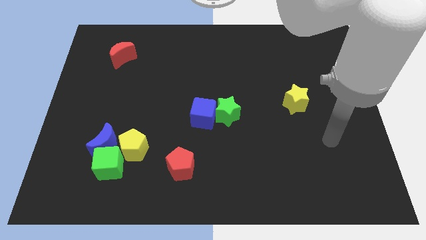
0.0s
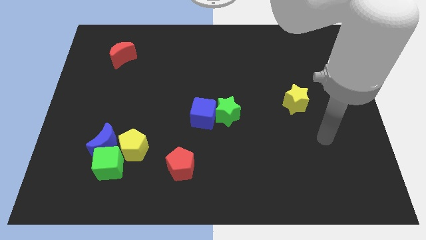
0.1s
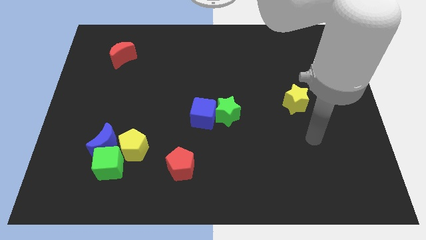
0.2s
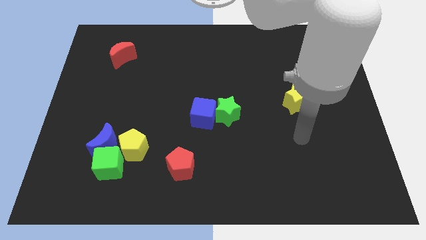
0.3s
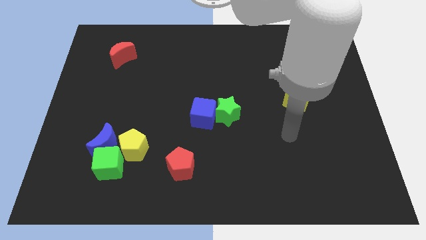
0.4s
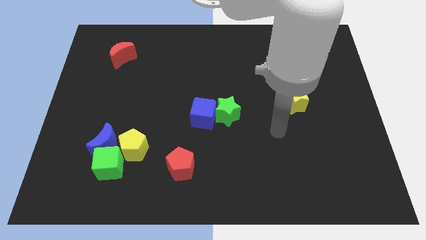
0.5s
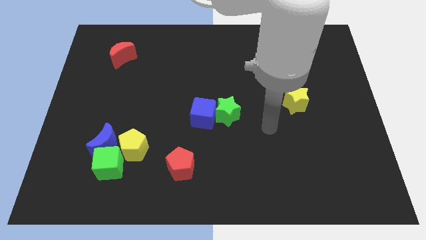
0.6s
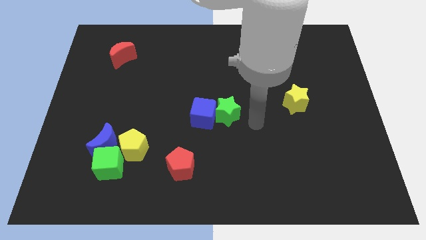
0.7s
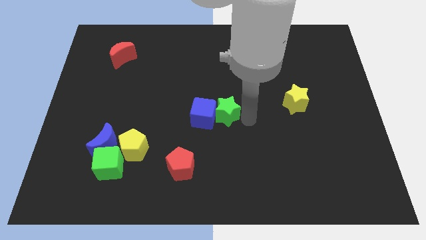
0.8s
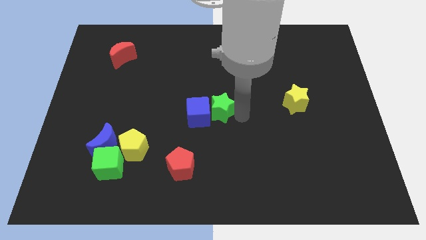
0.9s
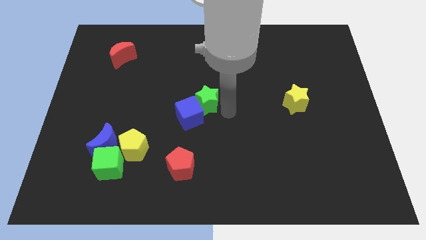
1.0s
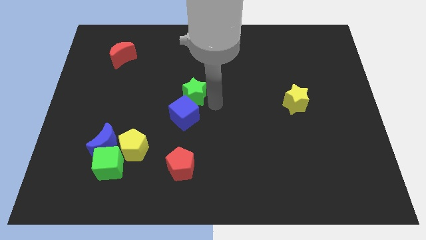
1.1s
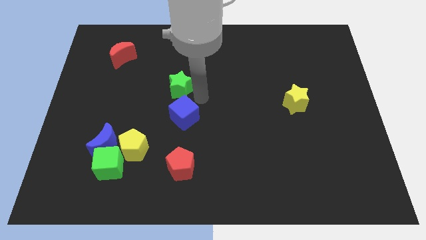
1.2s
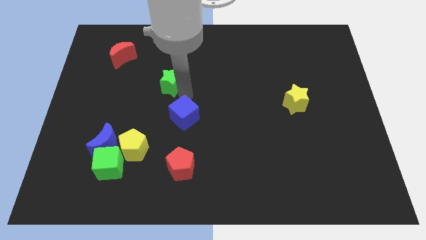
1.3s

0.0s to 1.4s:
move the blue cube away from the green star

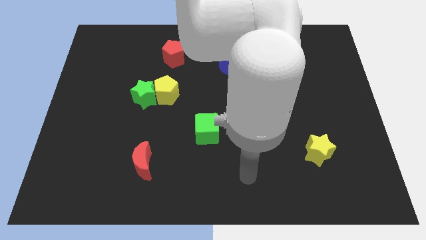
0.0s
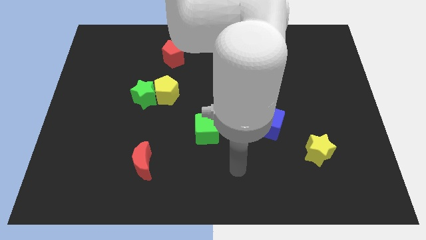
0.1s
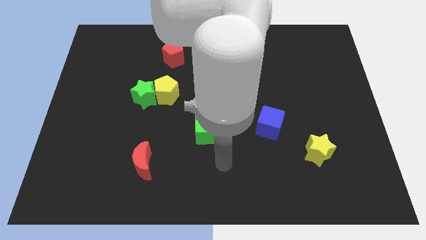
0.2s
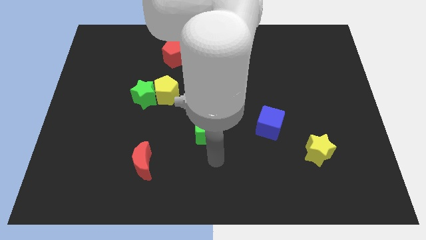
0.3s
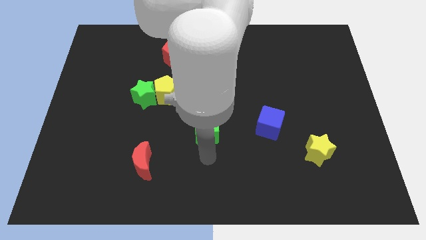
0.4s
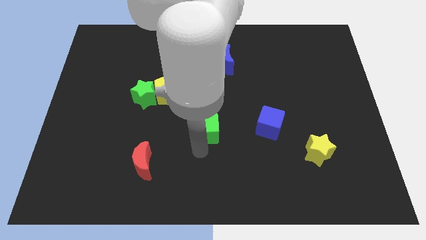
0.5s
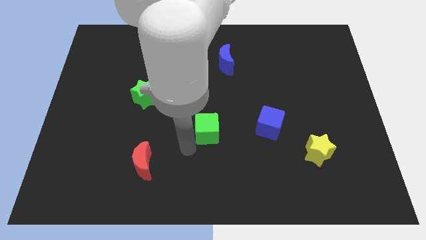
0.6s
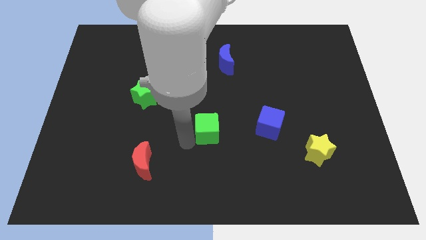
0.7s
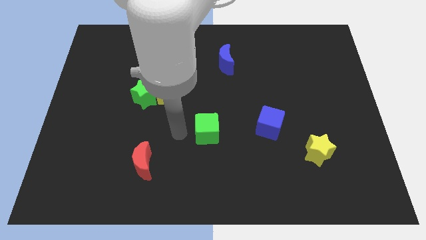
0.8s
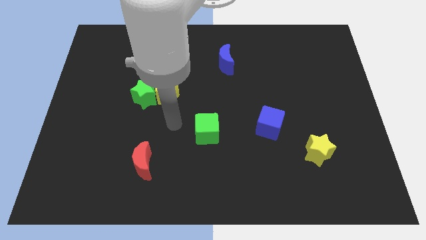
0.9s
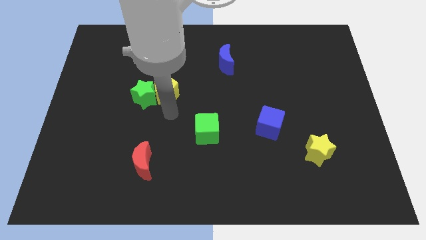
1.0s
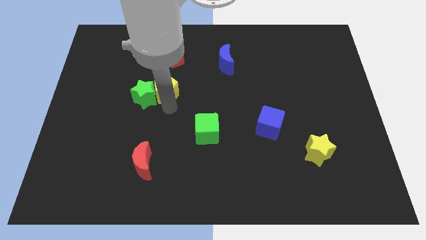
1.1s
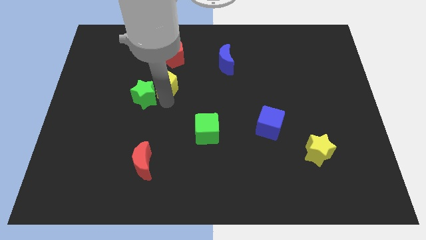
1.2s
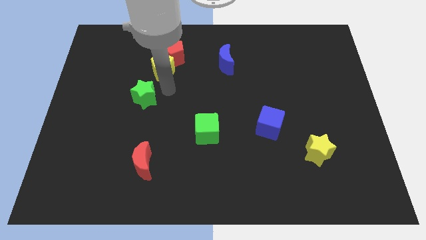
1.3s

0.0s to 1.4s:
separate the green star from the yellow pentagon

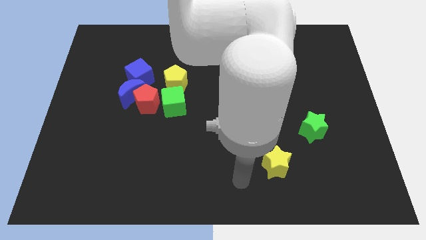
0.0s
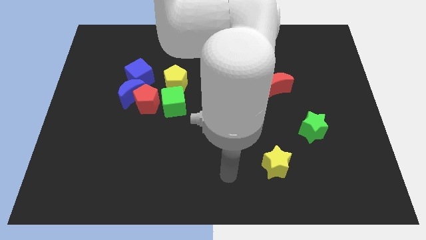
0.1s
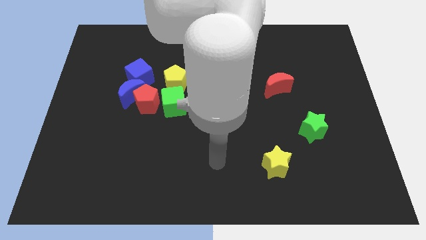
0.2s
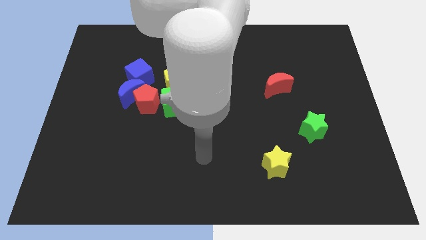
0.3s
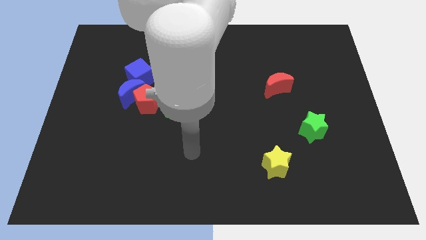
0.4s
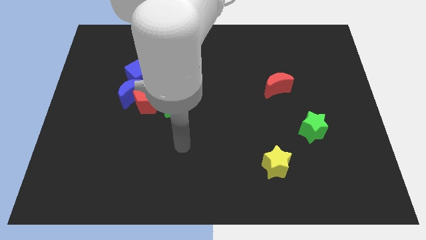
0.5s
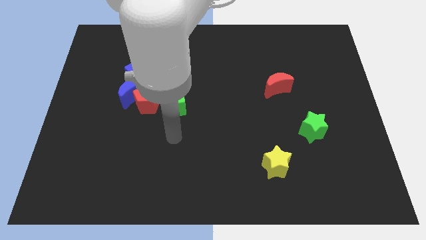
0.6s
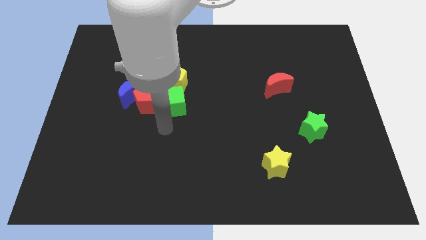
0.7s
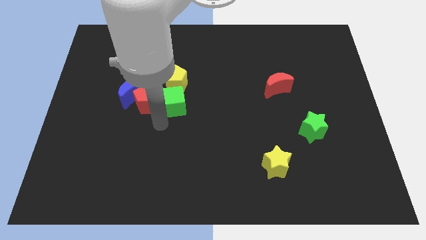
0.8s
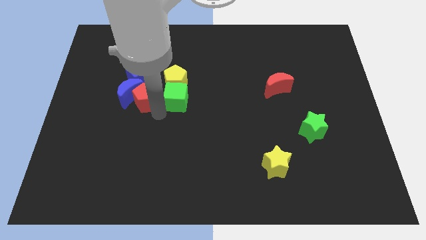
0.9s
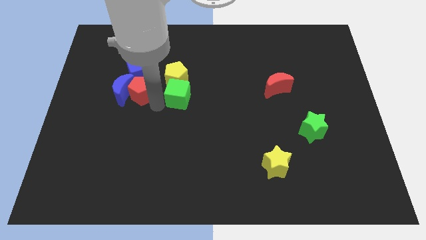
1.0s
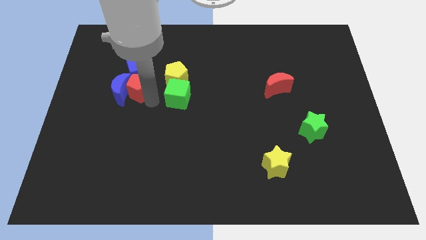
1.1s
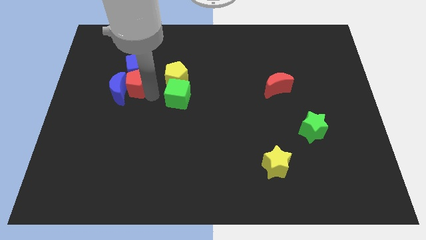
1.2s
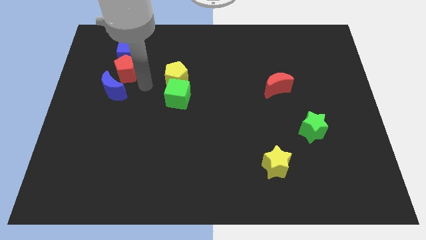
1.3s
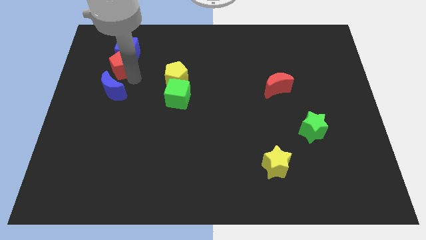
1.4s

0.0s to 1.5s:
pull the blue moon apart from the red pentagon and blue cube

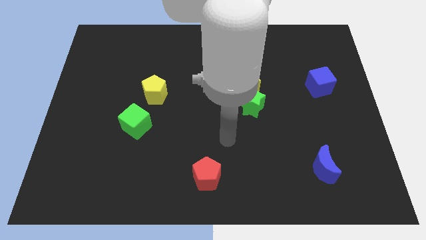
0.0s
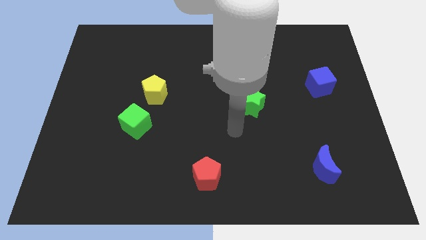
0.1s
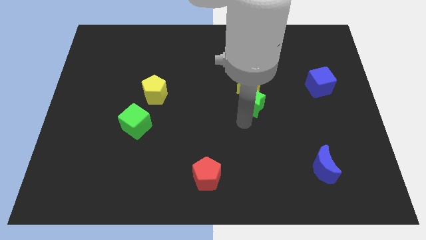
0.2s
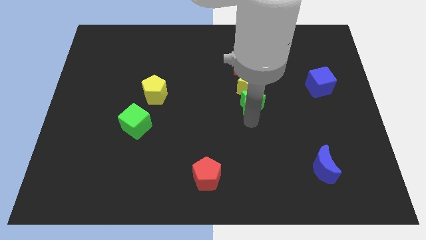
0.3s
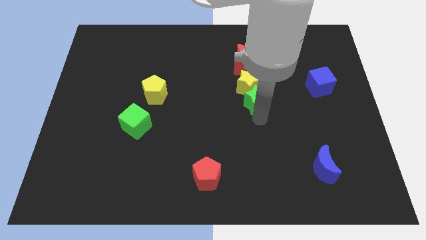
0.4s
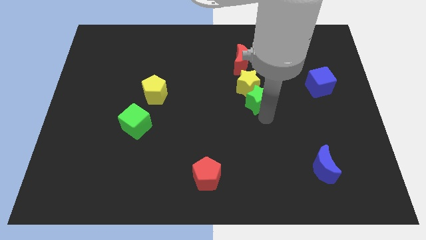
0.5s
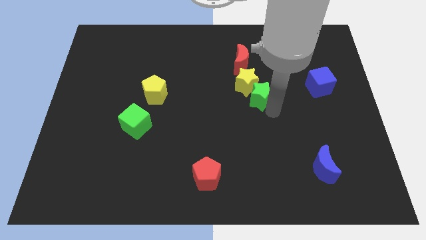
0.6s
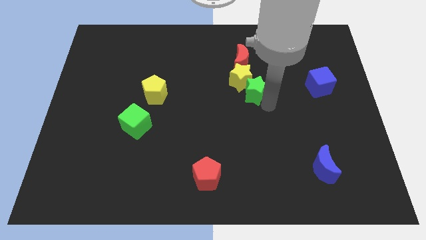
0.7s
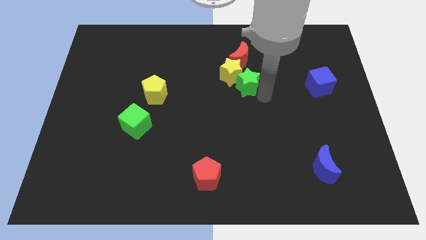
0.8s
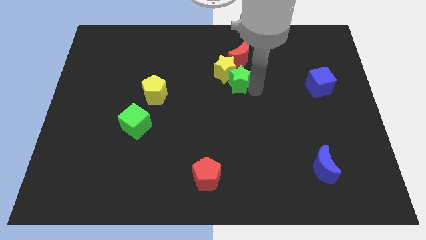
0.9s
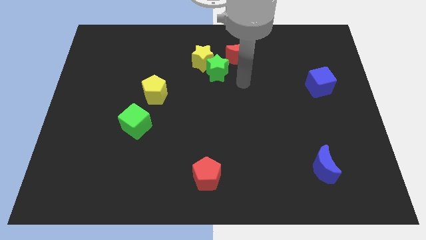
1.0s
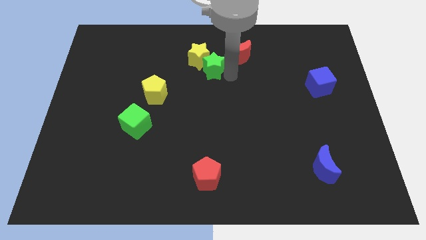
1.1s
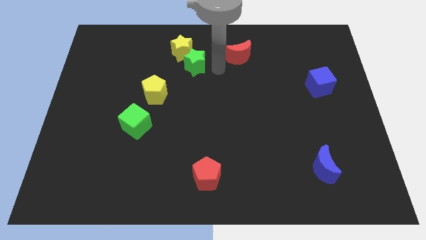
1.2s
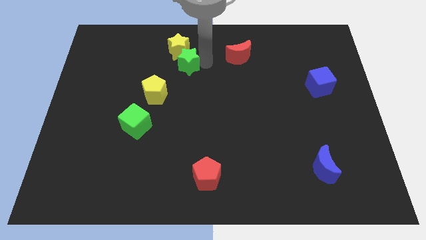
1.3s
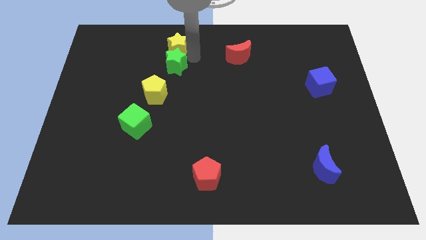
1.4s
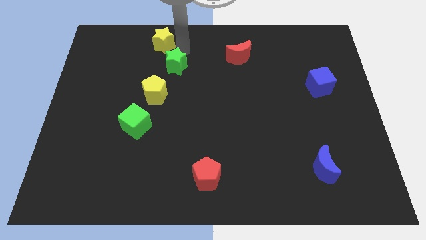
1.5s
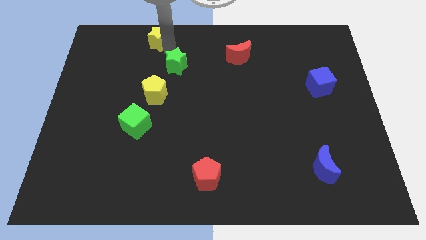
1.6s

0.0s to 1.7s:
move the green star away from the yellow star

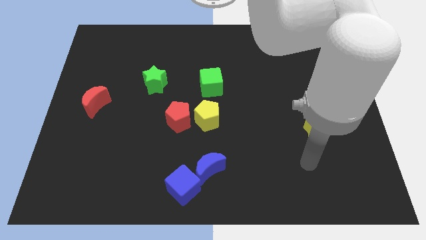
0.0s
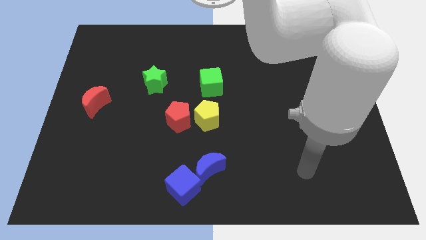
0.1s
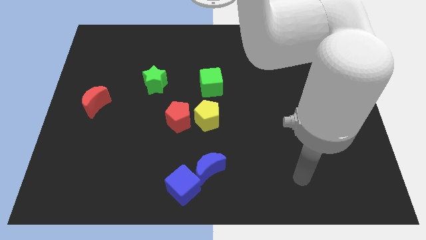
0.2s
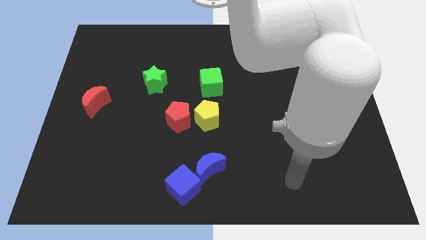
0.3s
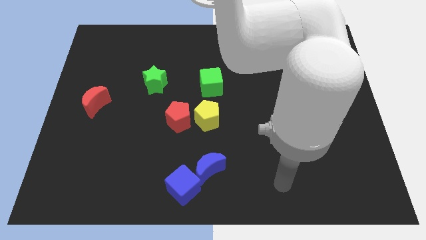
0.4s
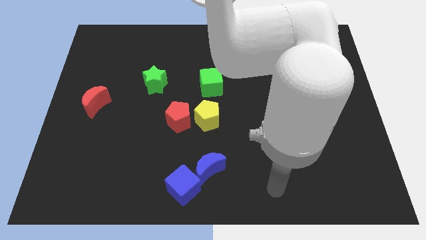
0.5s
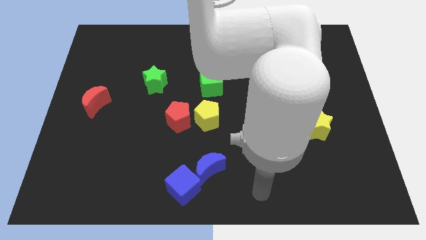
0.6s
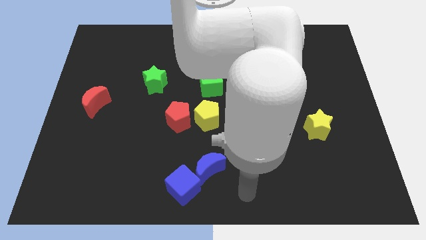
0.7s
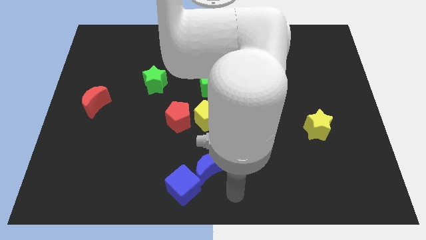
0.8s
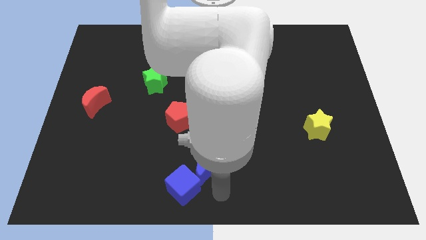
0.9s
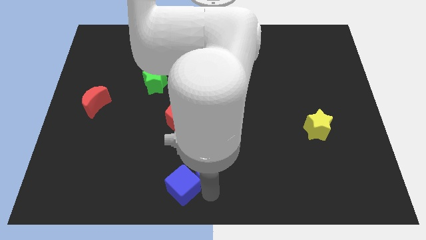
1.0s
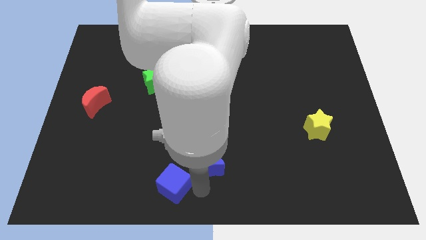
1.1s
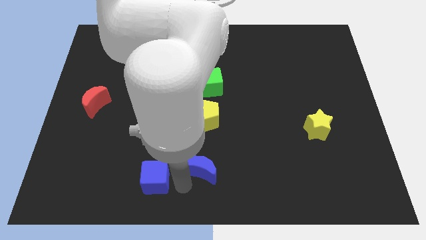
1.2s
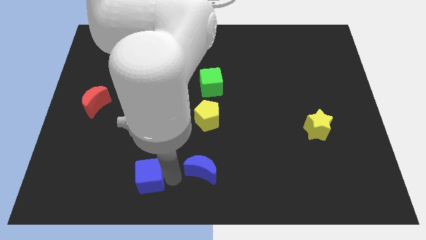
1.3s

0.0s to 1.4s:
pull the blue moon apart from the blue cube

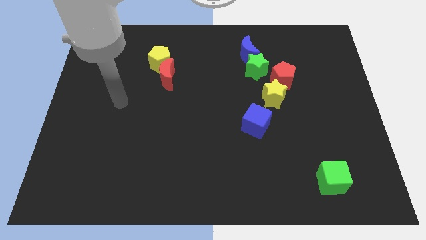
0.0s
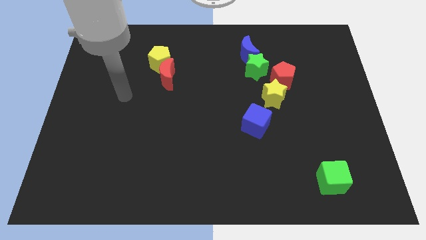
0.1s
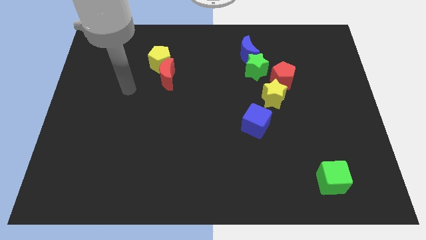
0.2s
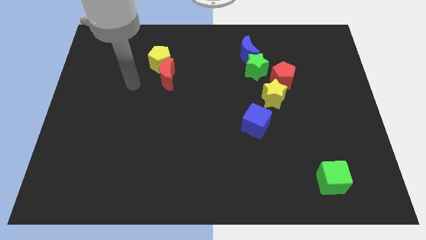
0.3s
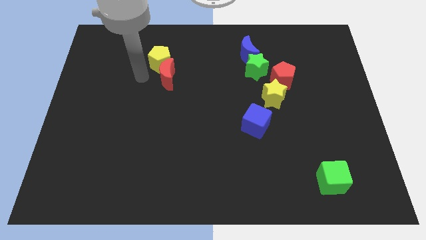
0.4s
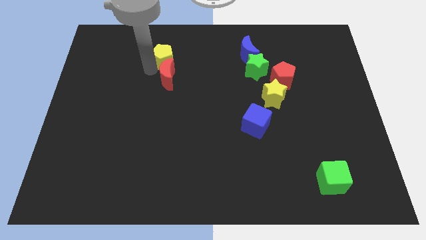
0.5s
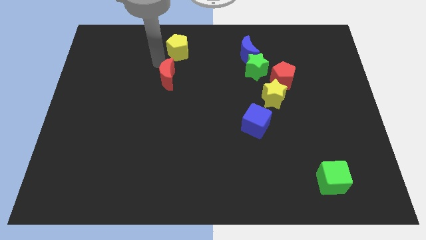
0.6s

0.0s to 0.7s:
move the red moon away from the yellow pentagon

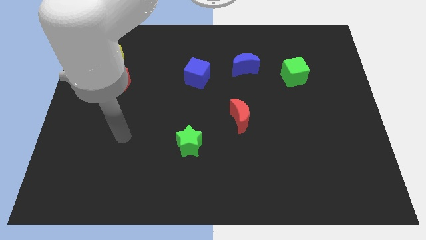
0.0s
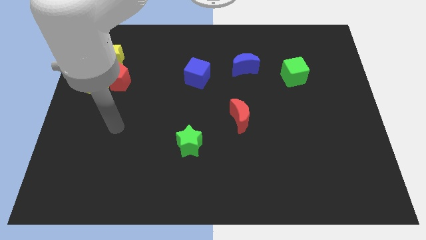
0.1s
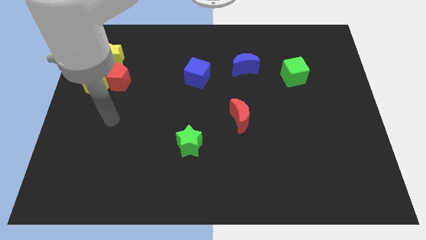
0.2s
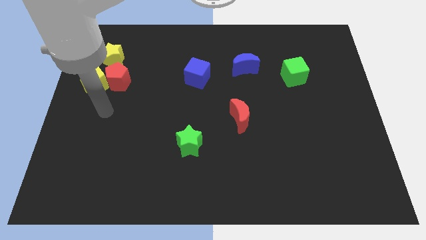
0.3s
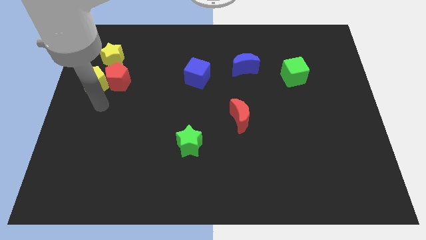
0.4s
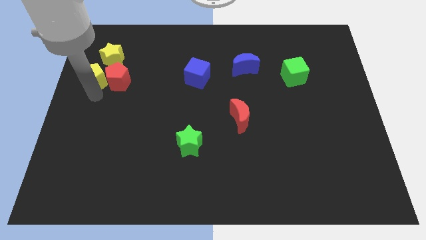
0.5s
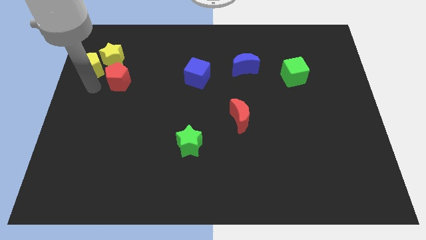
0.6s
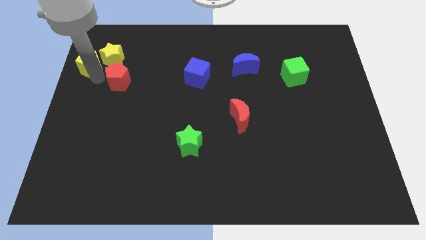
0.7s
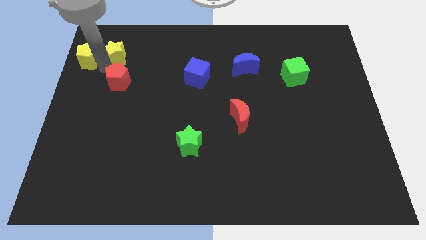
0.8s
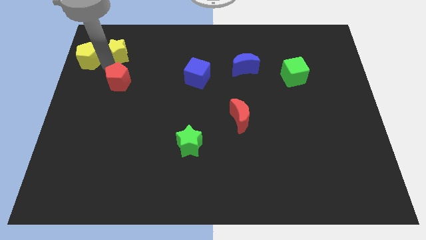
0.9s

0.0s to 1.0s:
separate the red pentagon from the yellow pentagon and yellow star

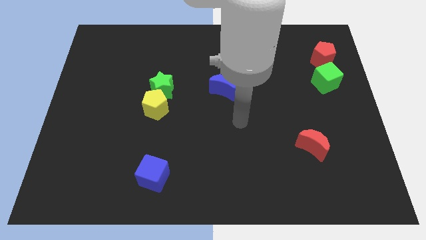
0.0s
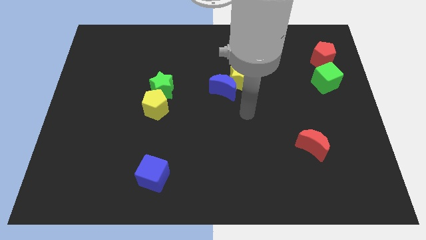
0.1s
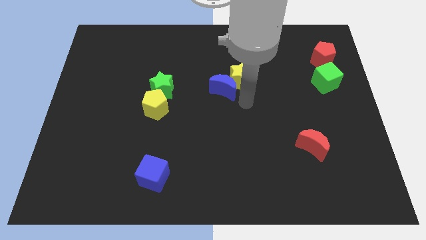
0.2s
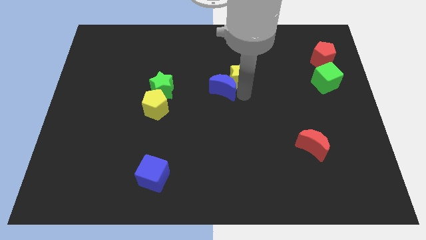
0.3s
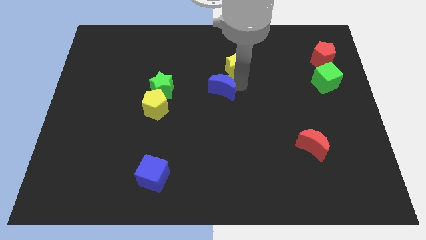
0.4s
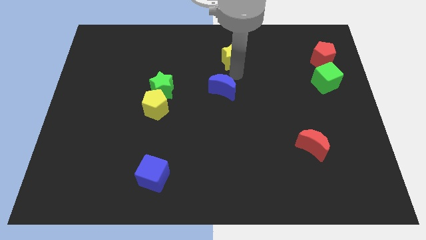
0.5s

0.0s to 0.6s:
separate the blue moon from the yellow star
